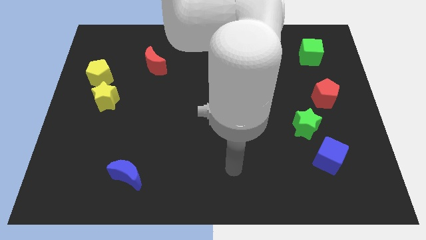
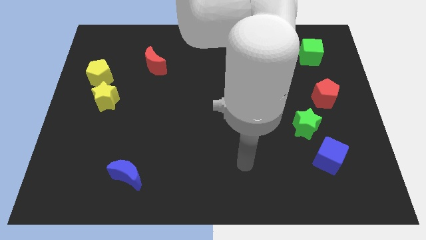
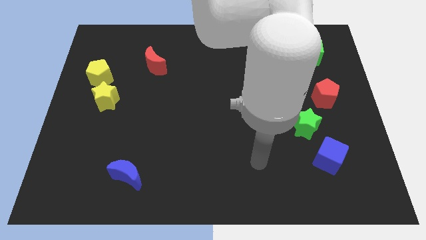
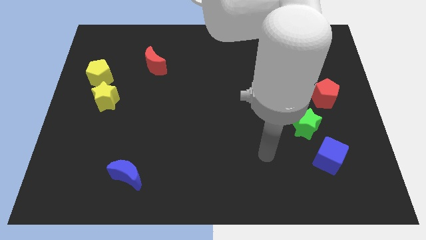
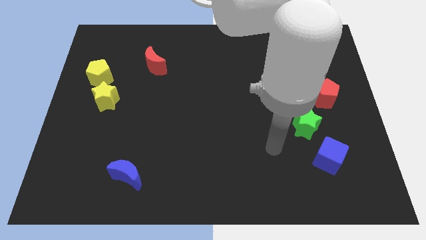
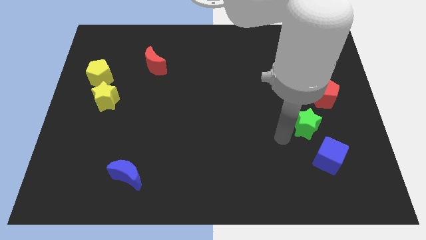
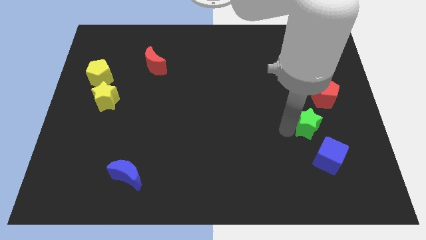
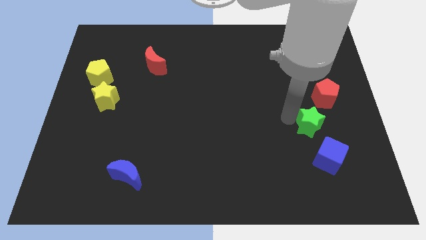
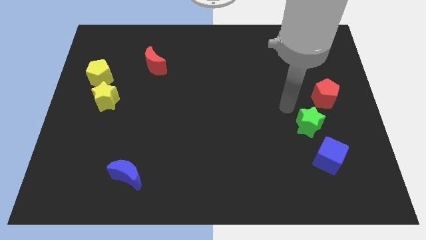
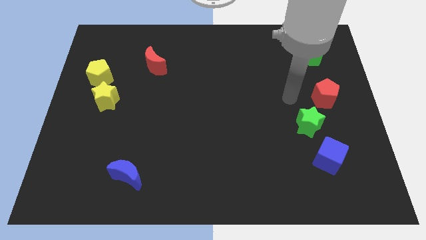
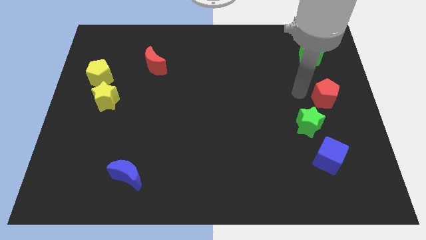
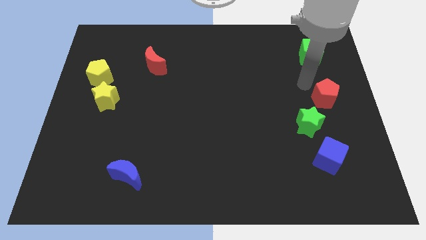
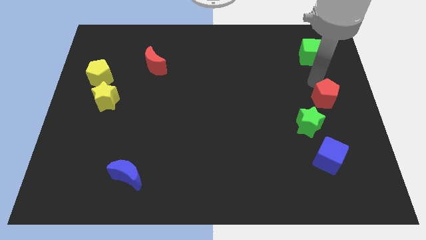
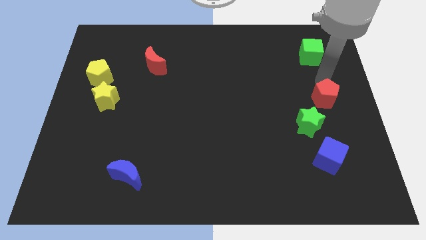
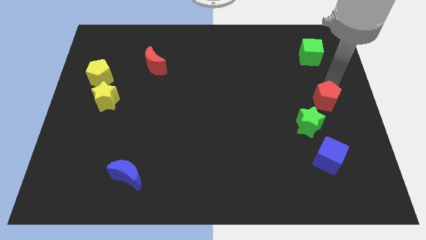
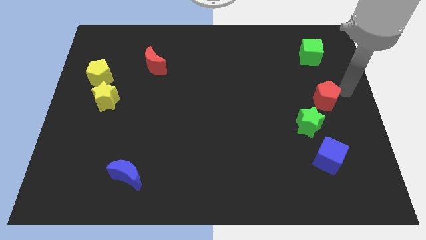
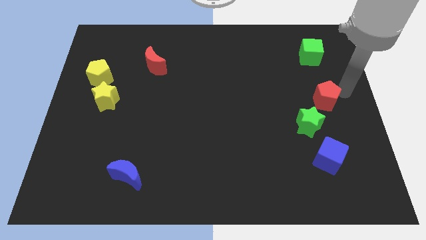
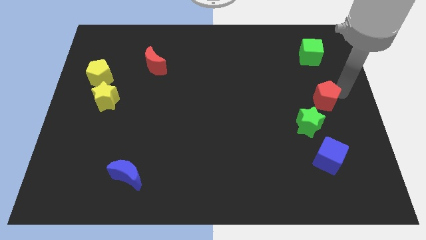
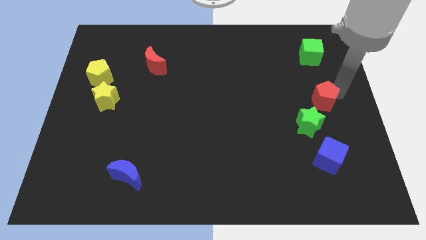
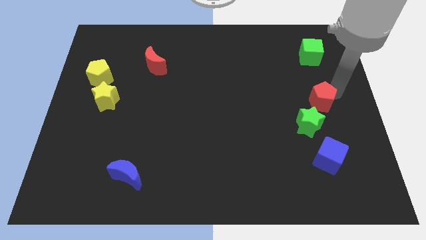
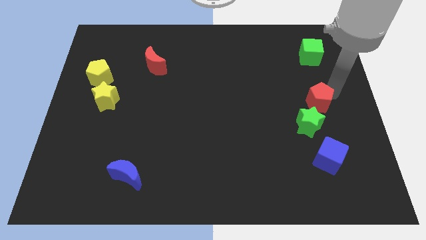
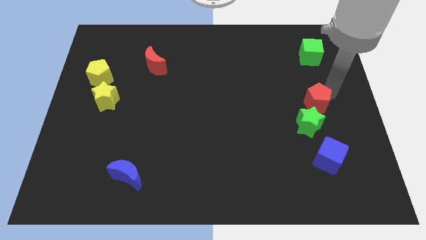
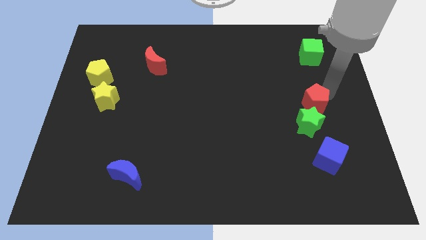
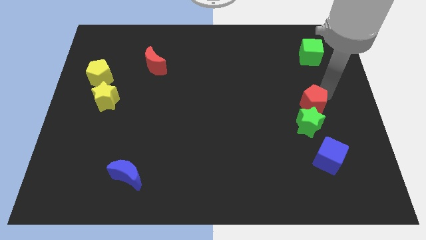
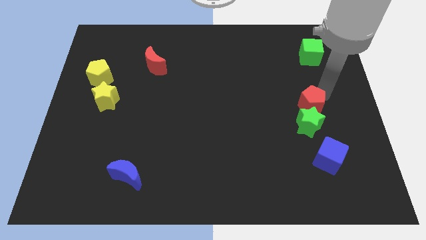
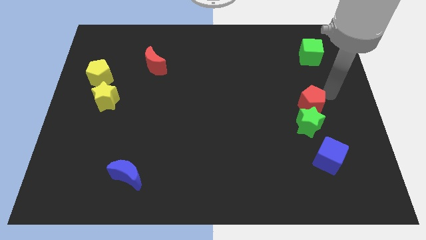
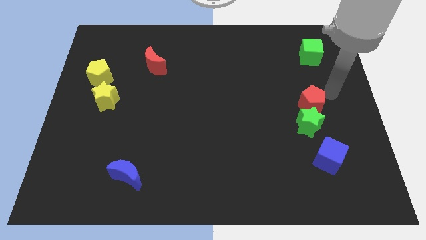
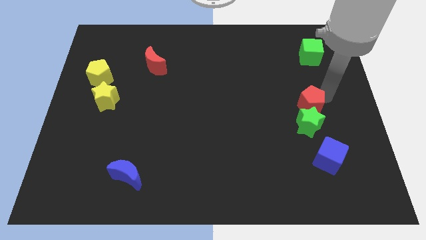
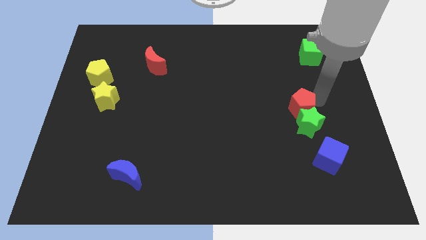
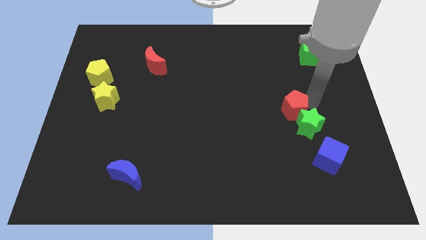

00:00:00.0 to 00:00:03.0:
slightly slide the red pentagon down and left

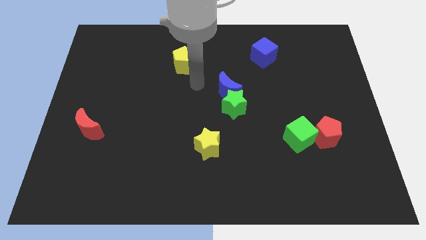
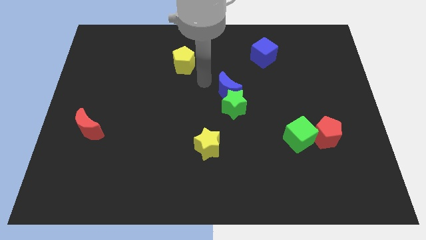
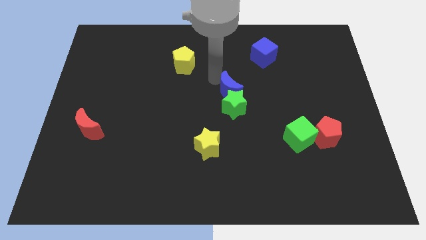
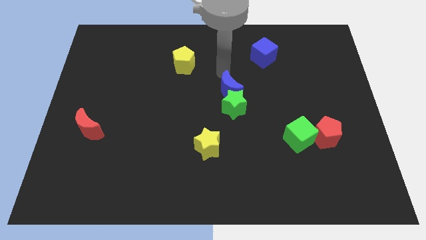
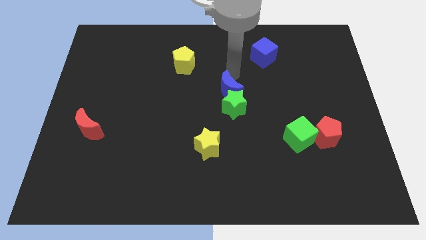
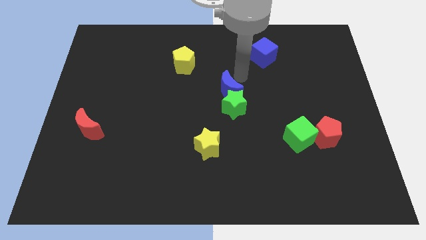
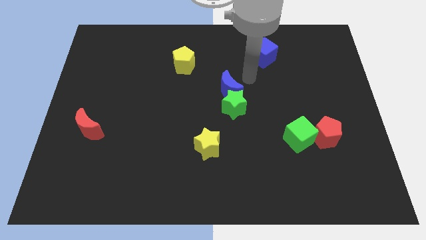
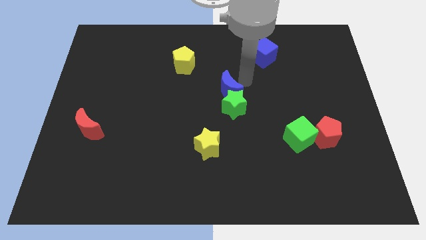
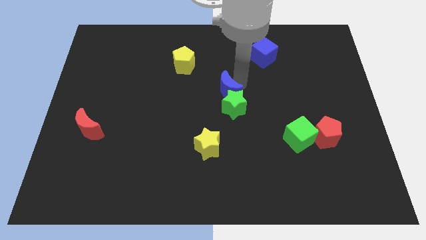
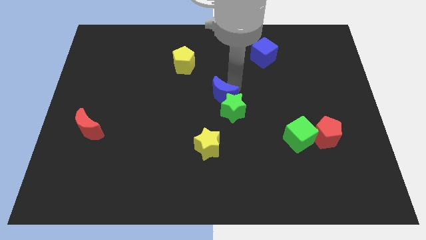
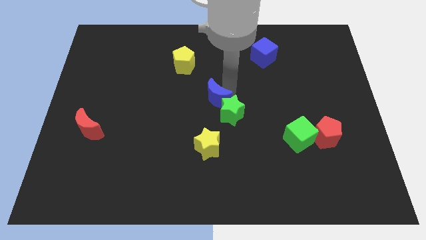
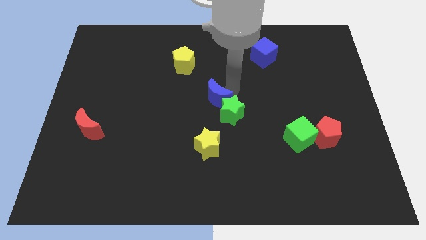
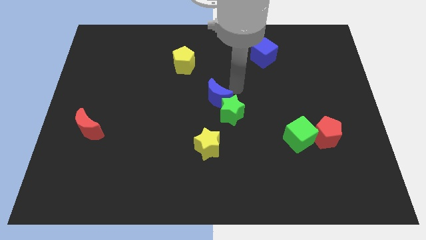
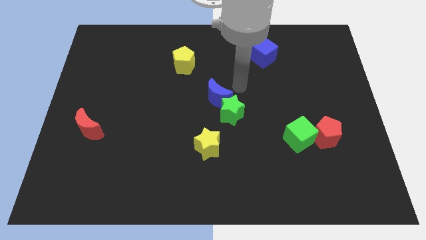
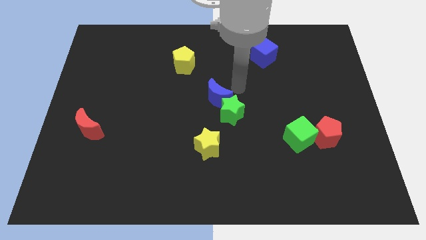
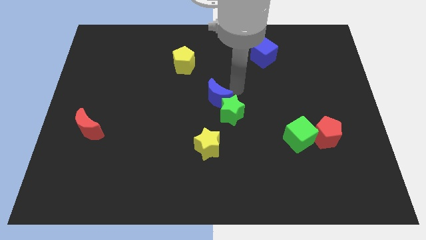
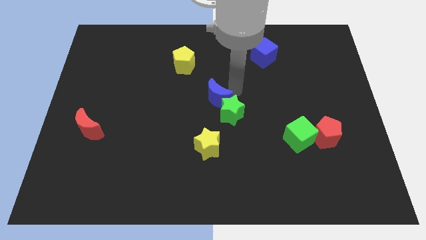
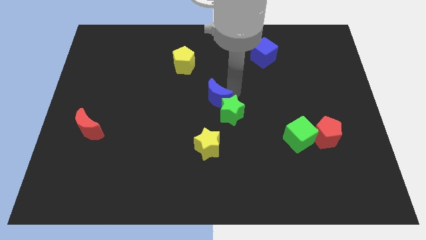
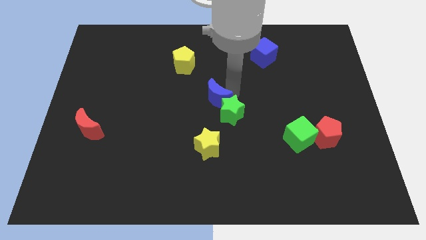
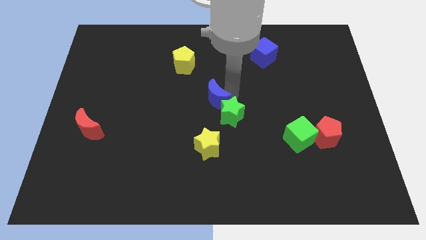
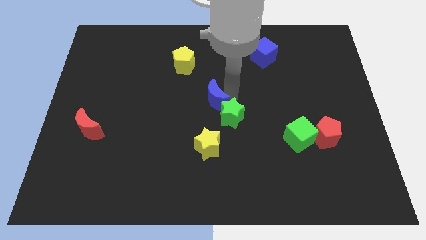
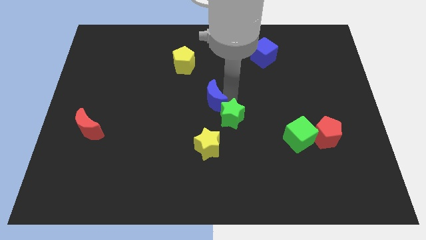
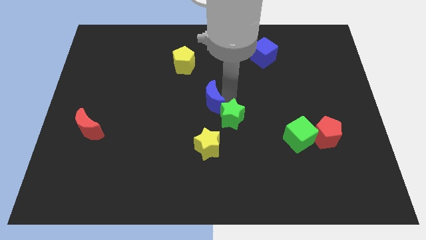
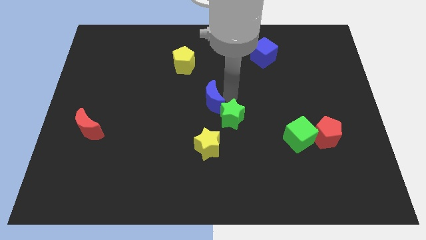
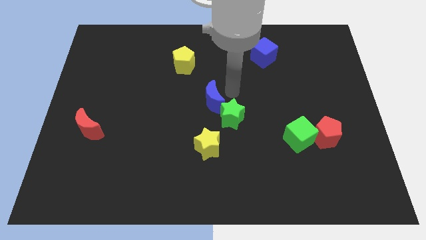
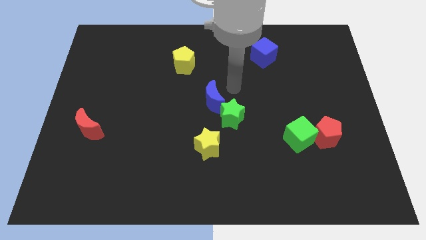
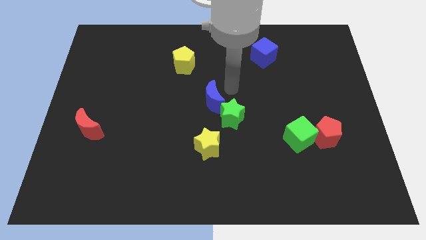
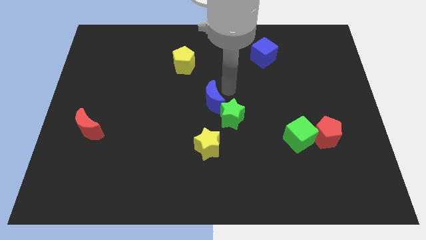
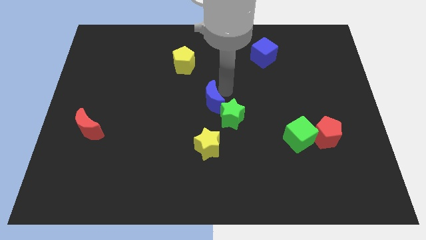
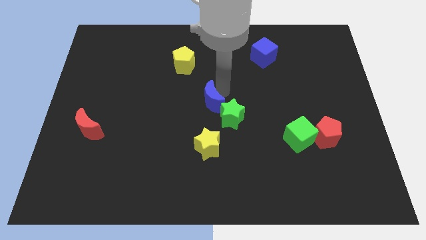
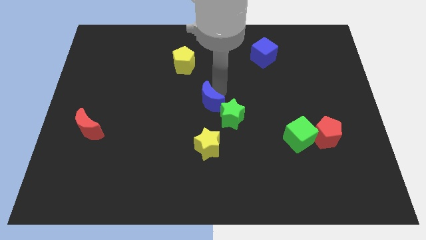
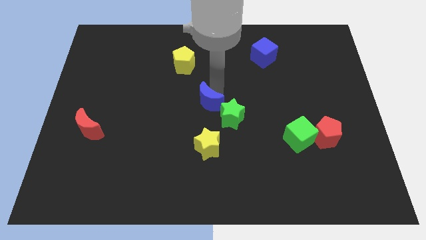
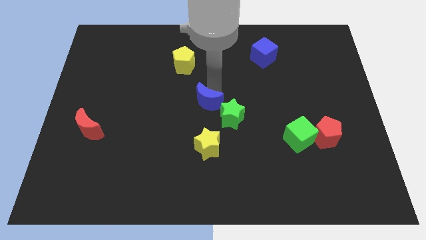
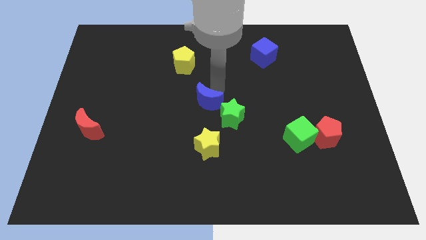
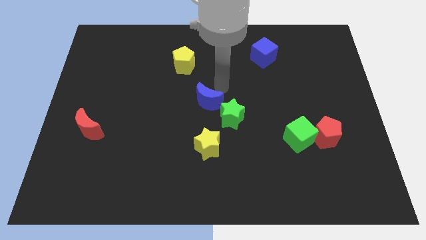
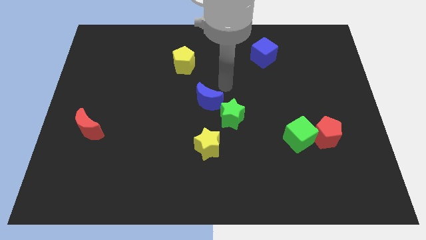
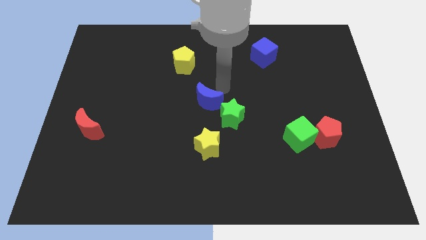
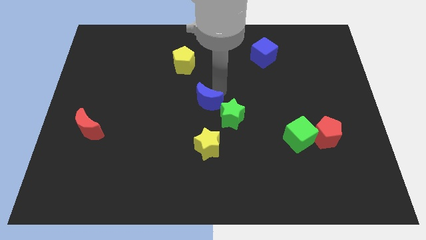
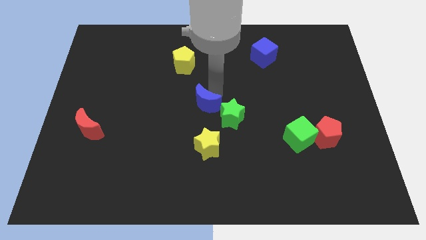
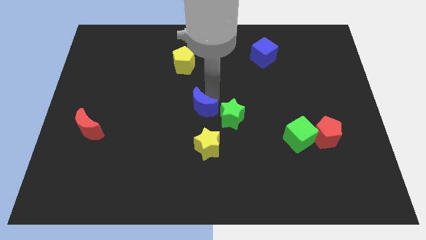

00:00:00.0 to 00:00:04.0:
move the blue moon a little bit down and then to the left

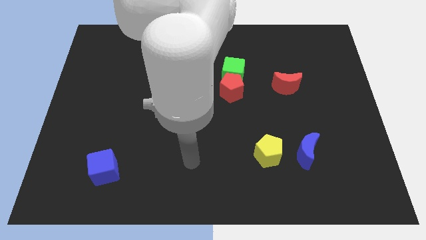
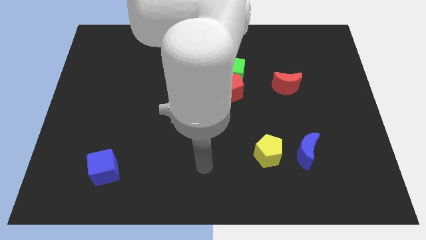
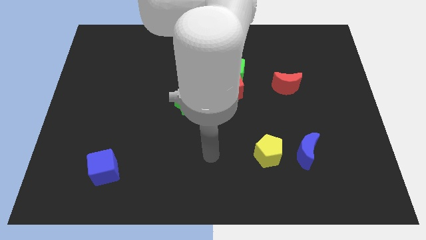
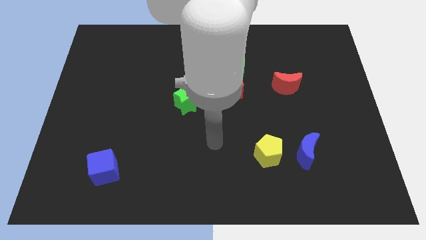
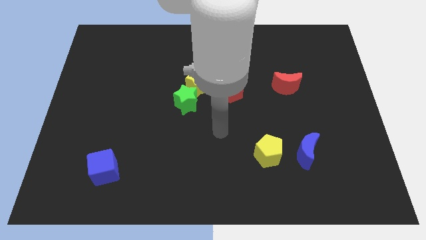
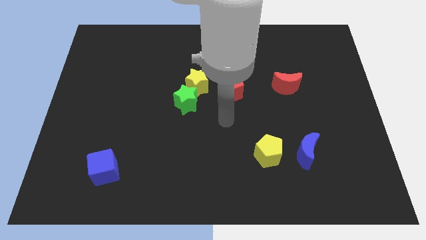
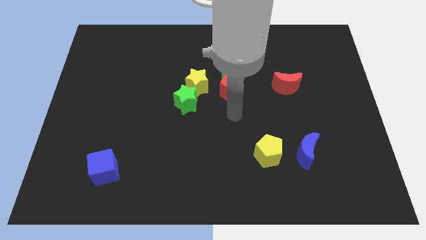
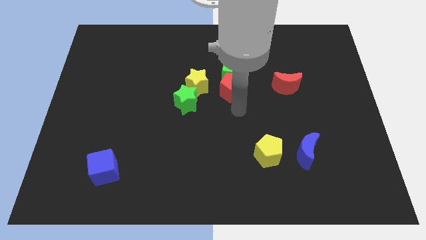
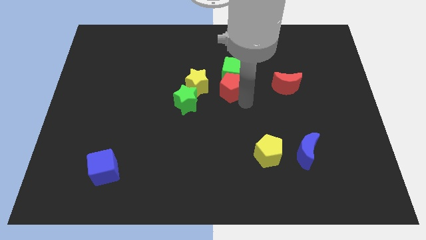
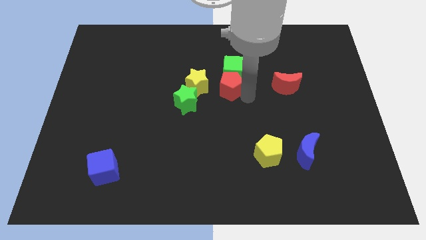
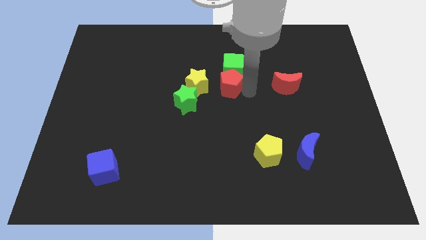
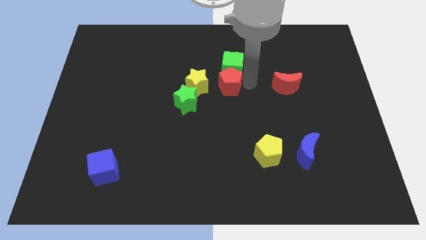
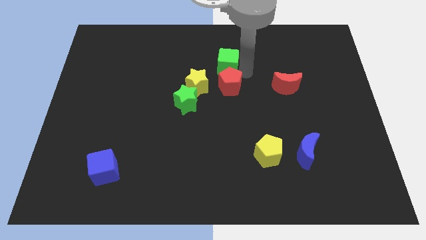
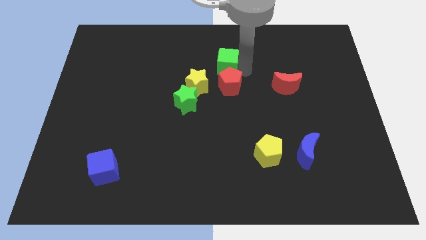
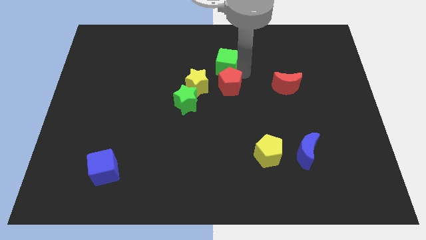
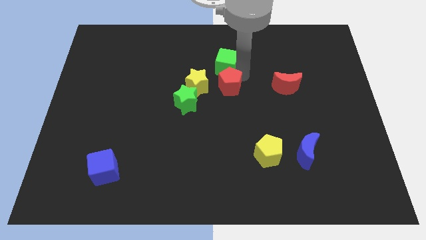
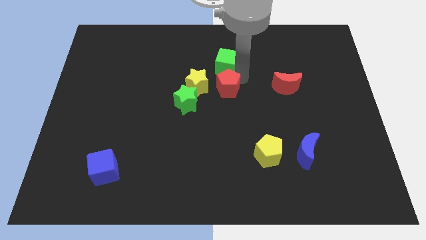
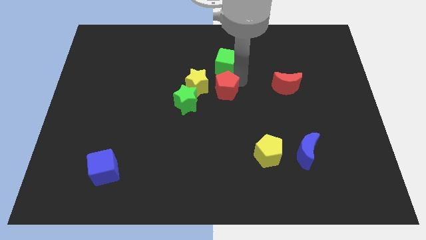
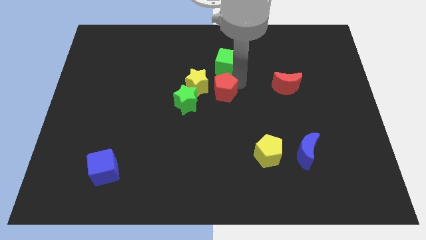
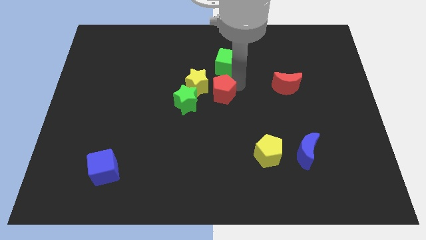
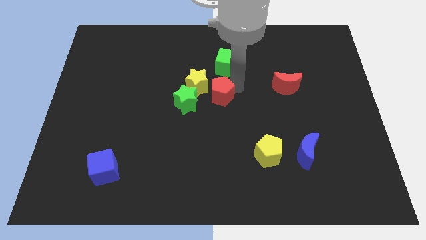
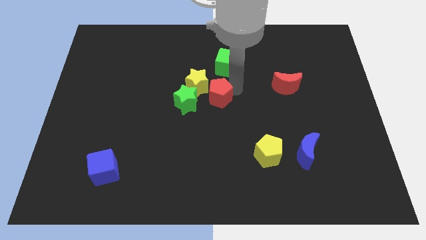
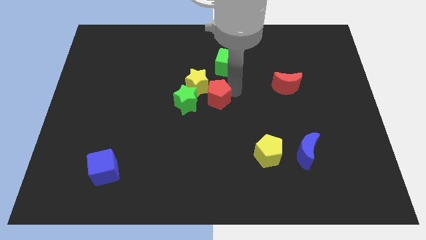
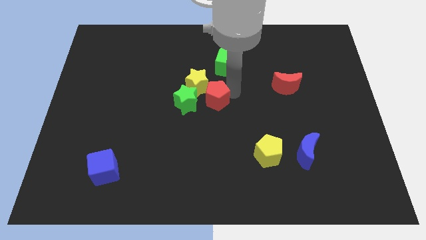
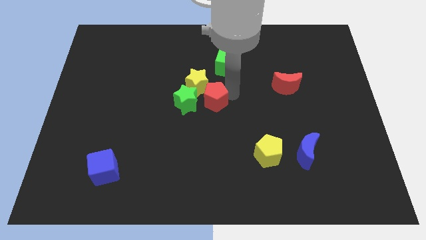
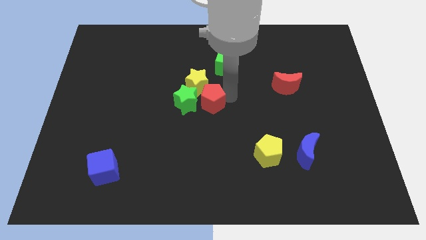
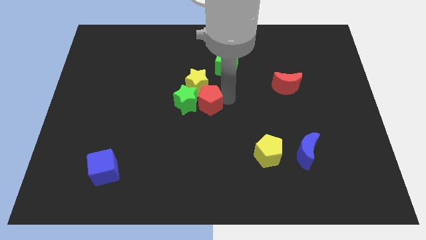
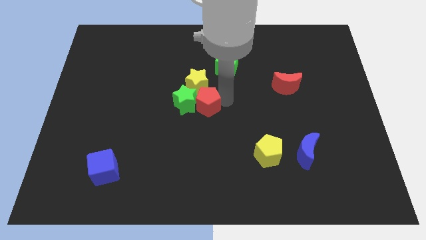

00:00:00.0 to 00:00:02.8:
move the red pentagon downwards and left diagonally slightly
